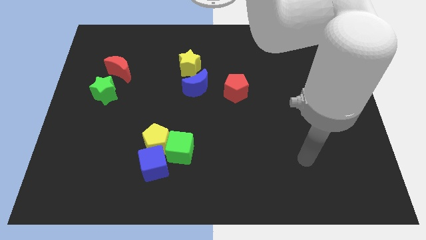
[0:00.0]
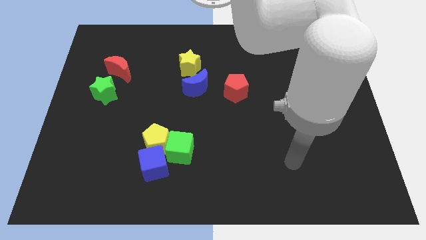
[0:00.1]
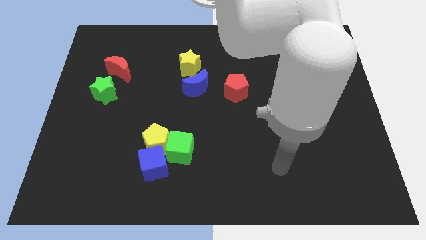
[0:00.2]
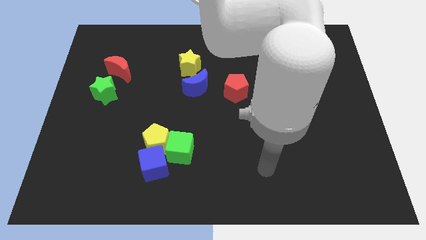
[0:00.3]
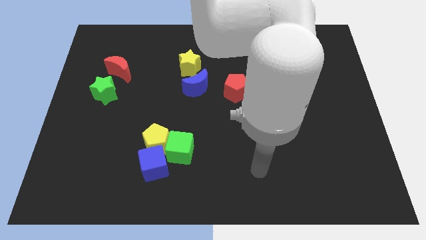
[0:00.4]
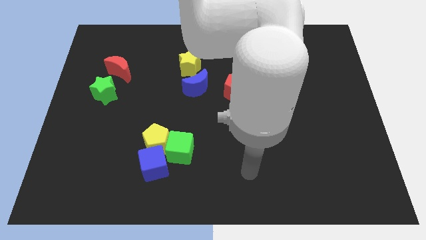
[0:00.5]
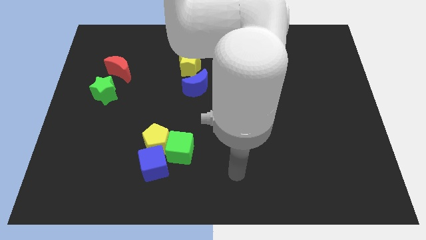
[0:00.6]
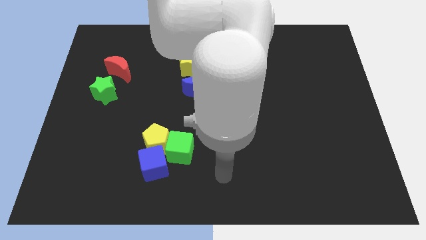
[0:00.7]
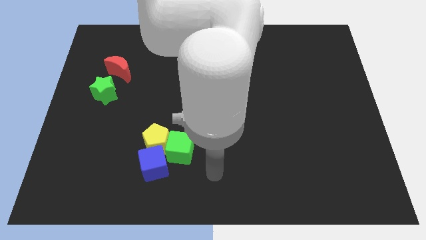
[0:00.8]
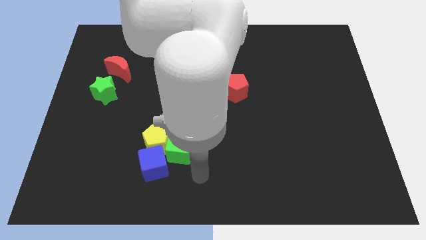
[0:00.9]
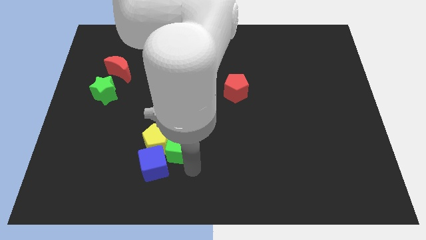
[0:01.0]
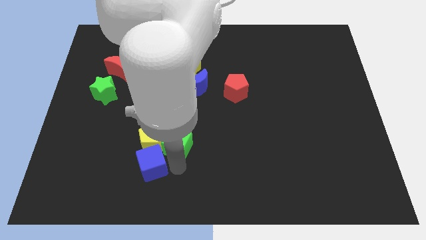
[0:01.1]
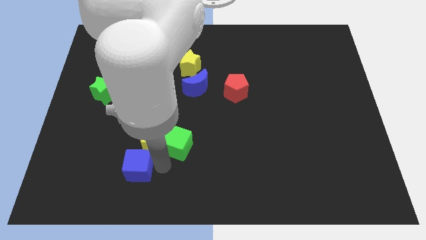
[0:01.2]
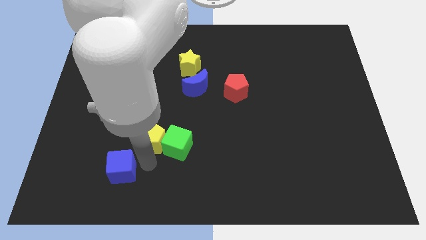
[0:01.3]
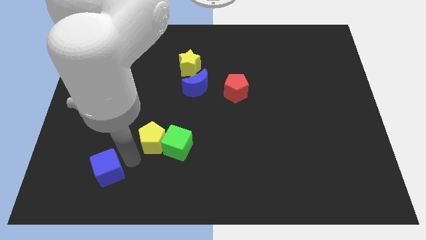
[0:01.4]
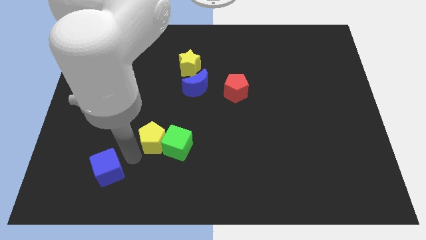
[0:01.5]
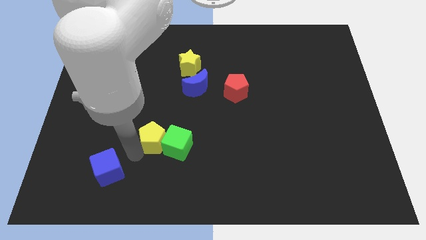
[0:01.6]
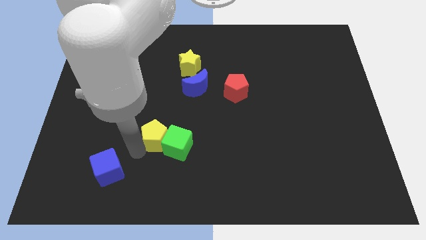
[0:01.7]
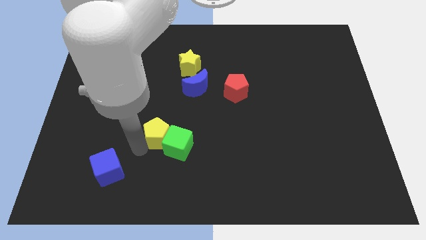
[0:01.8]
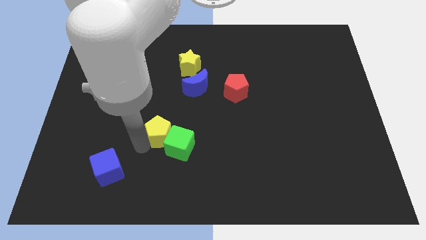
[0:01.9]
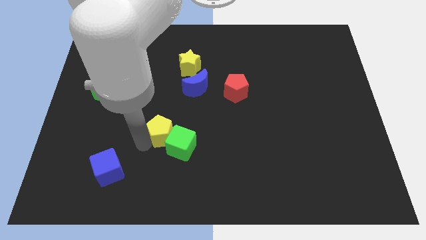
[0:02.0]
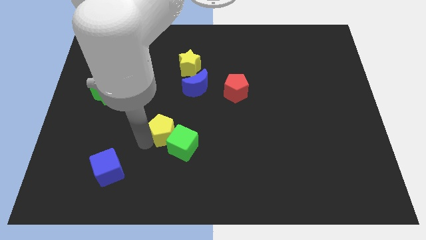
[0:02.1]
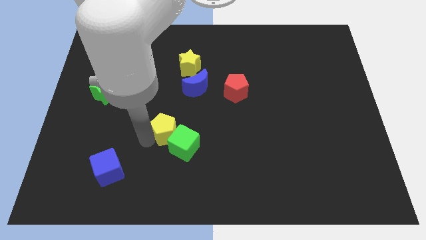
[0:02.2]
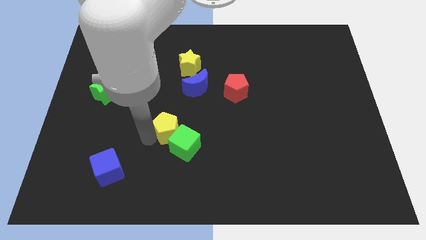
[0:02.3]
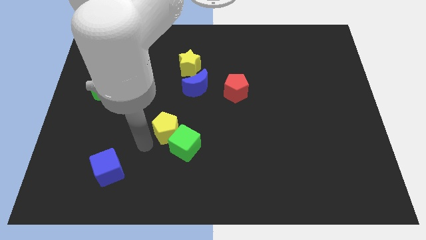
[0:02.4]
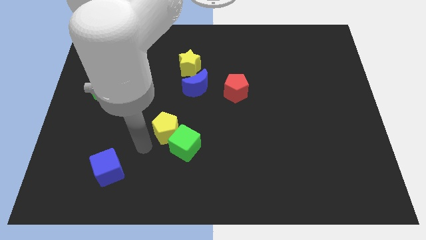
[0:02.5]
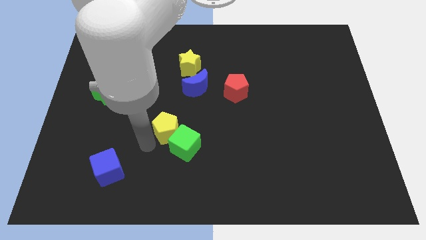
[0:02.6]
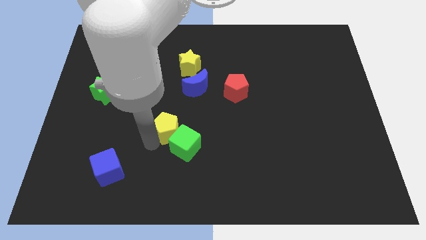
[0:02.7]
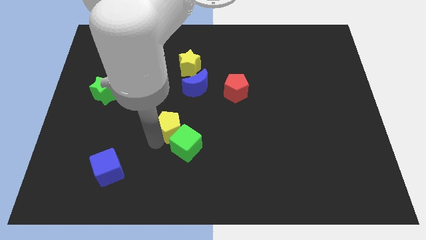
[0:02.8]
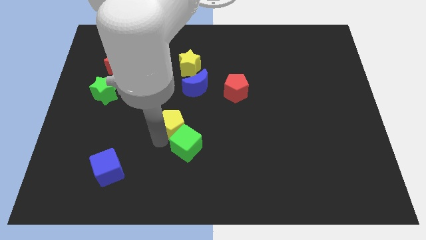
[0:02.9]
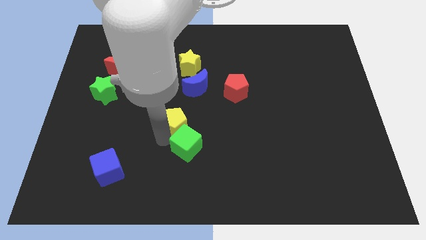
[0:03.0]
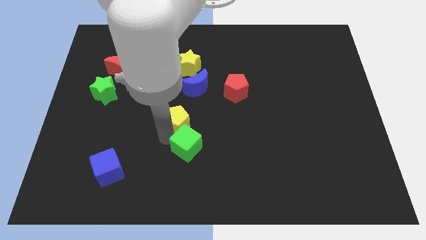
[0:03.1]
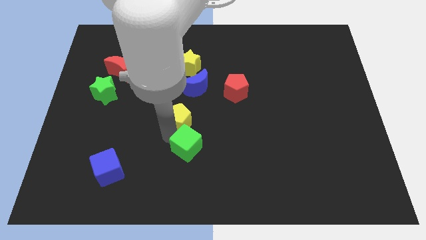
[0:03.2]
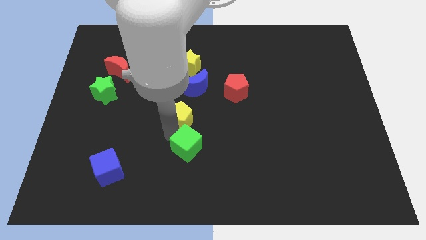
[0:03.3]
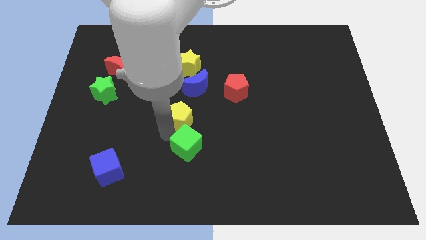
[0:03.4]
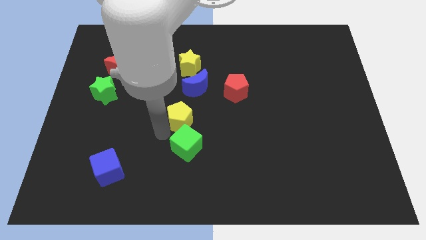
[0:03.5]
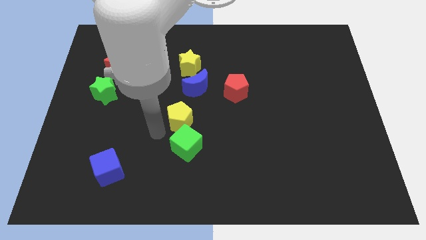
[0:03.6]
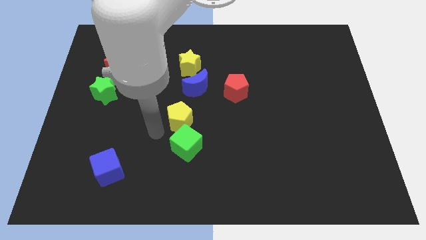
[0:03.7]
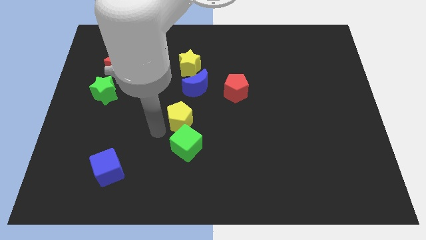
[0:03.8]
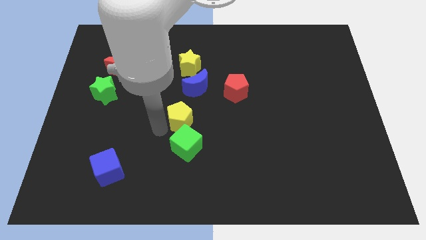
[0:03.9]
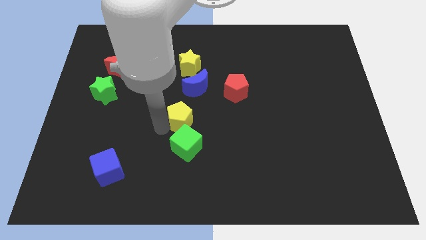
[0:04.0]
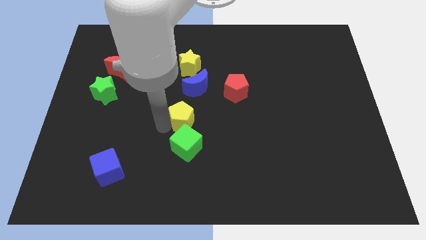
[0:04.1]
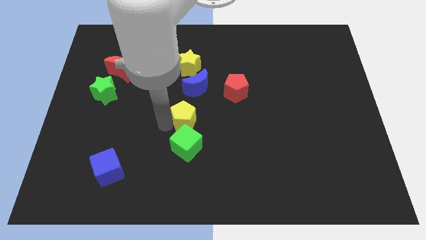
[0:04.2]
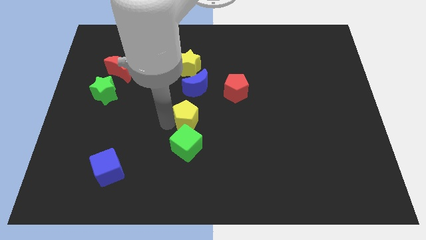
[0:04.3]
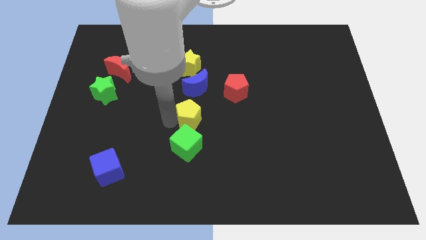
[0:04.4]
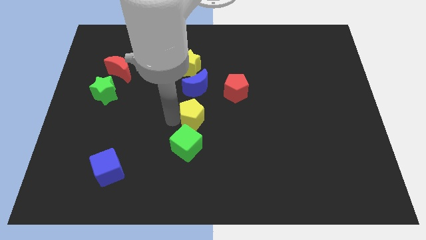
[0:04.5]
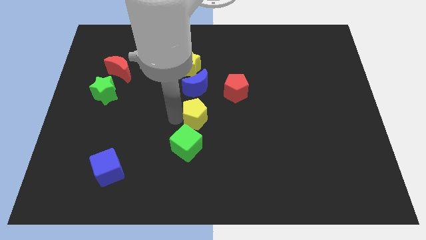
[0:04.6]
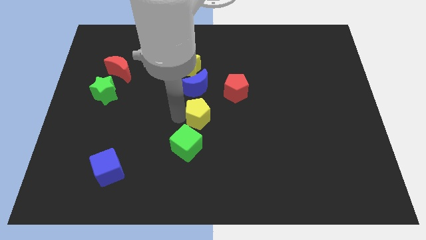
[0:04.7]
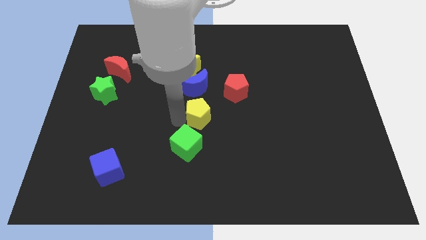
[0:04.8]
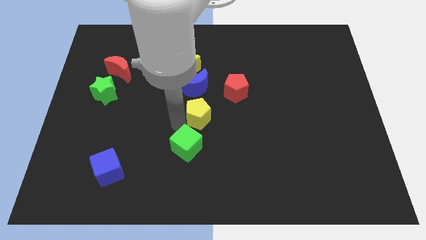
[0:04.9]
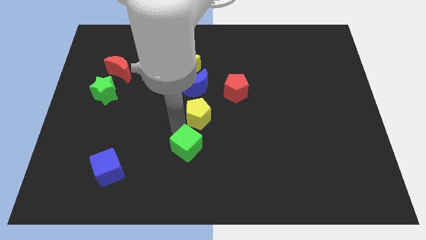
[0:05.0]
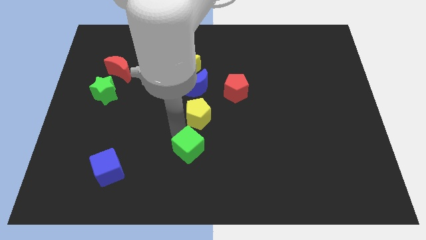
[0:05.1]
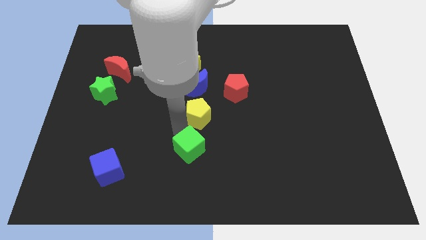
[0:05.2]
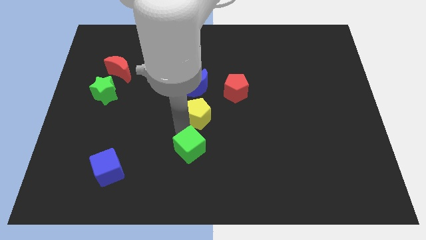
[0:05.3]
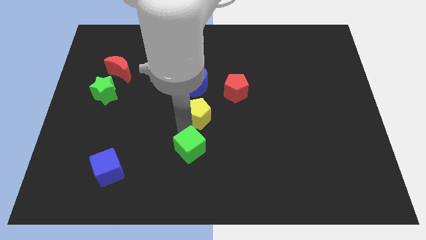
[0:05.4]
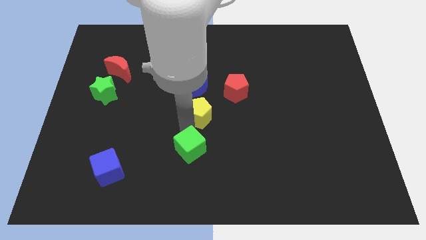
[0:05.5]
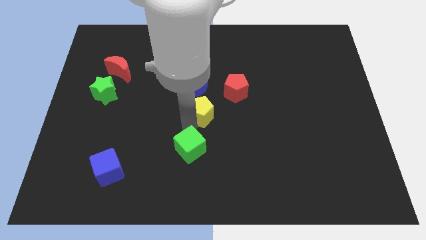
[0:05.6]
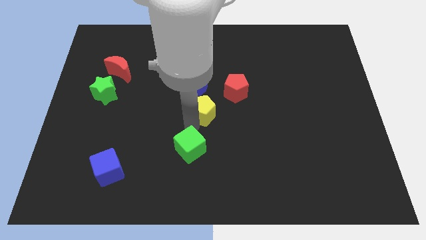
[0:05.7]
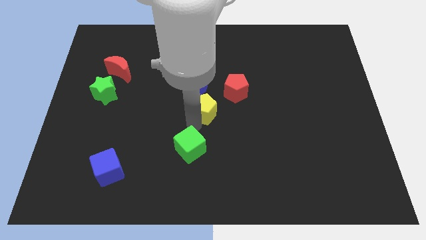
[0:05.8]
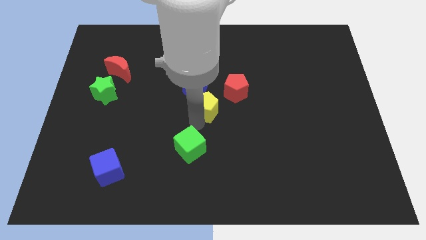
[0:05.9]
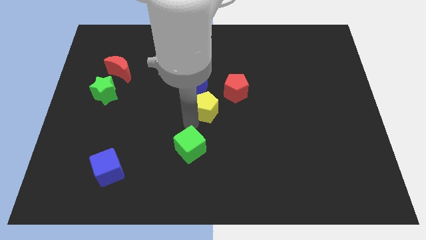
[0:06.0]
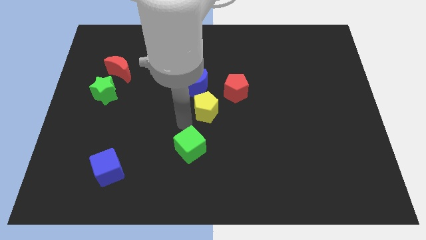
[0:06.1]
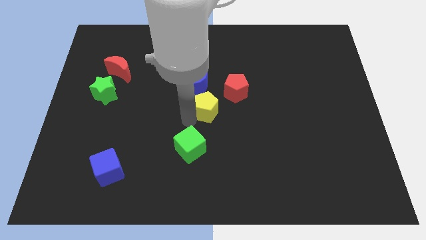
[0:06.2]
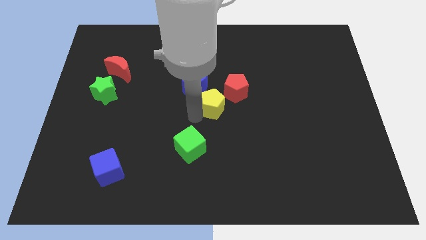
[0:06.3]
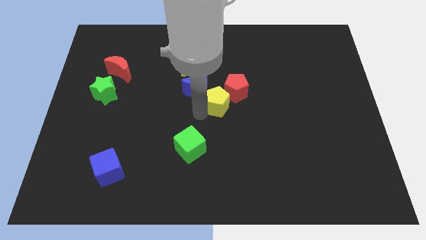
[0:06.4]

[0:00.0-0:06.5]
push the yellow pentagon close to the red pentagon

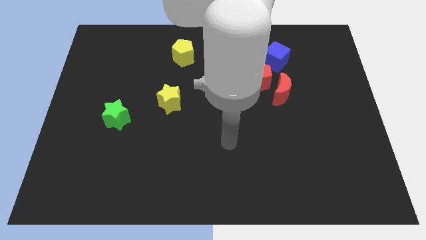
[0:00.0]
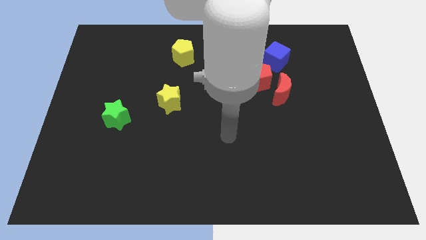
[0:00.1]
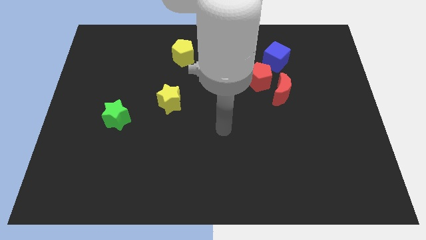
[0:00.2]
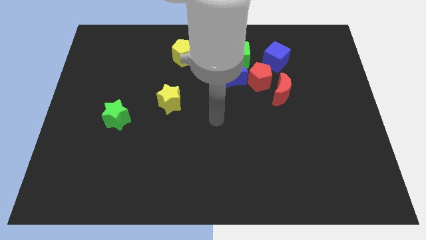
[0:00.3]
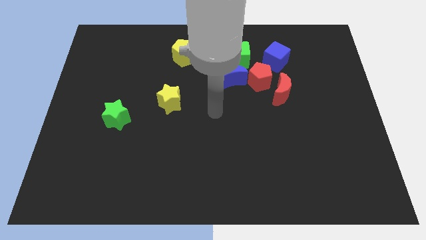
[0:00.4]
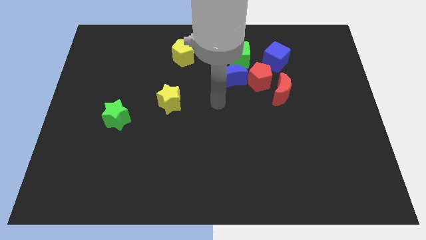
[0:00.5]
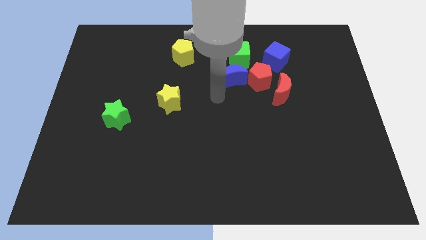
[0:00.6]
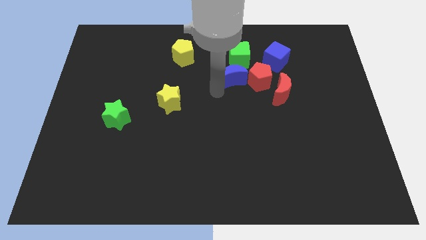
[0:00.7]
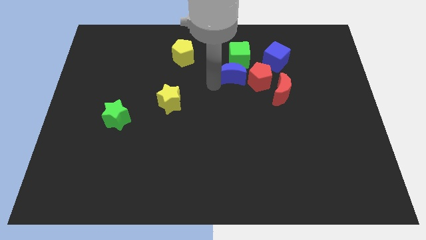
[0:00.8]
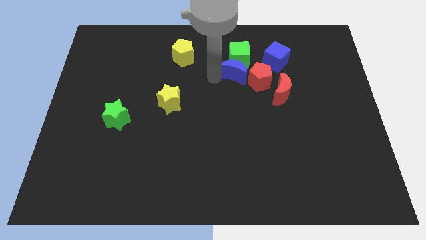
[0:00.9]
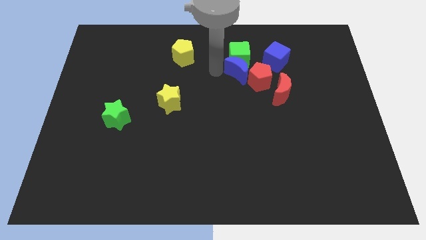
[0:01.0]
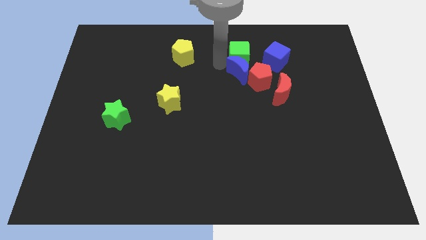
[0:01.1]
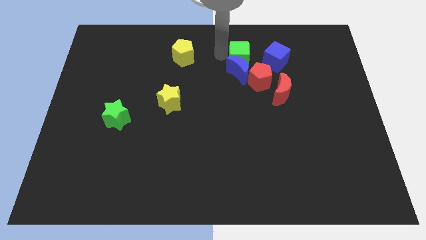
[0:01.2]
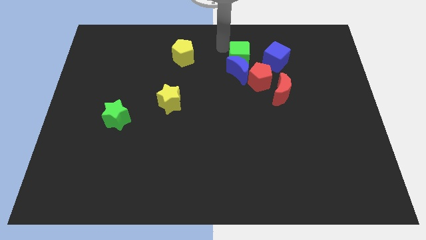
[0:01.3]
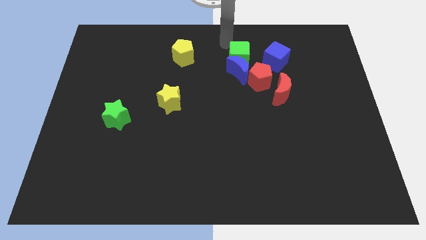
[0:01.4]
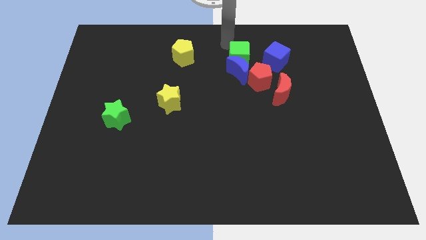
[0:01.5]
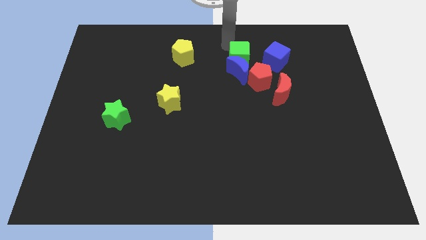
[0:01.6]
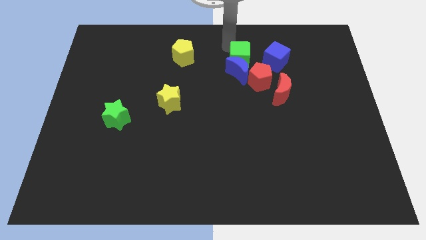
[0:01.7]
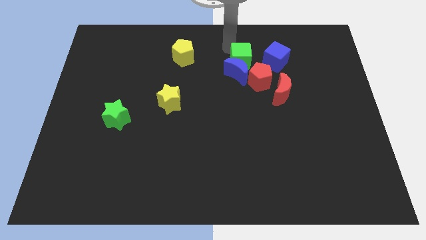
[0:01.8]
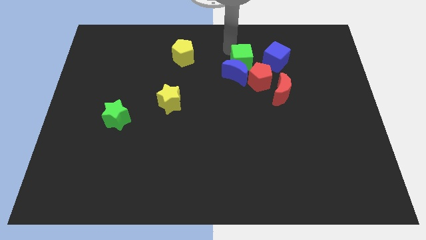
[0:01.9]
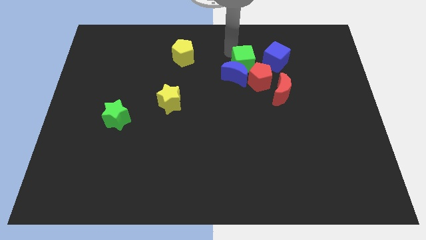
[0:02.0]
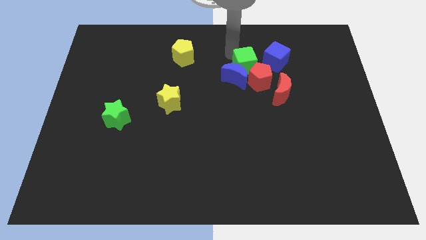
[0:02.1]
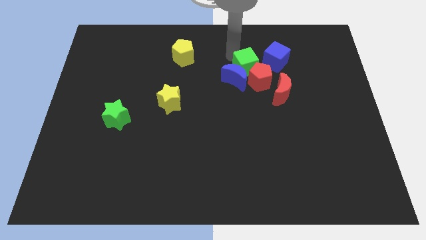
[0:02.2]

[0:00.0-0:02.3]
slide the green cube next to the red pentagon
